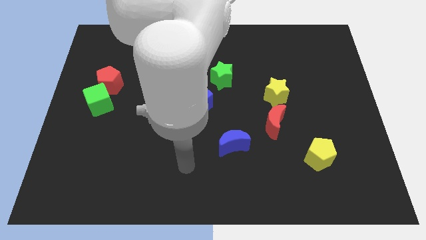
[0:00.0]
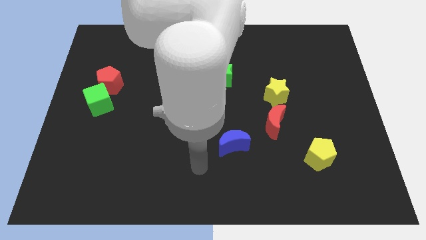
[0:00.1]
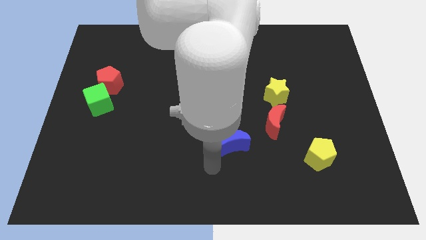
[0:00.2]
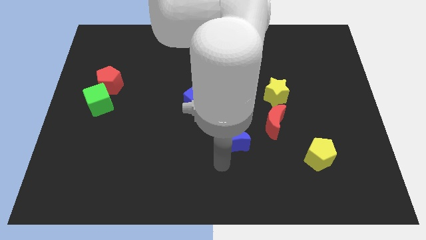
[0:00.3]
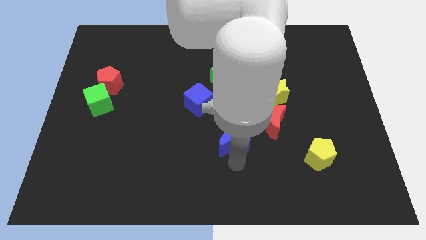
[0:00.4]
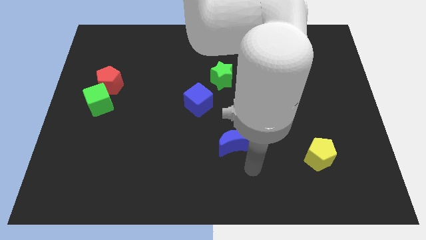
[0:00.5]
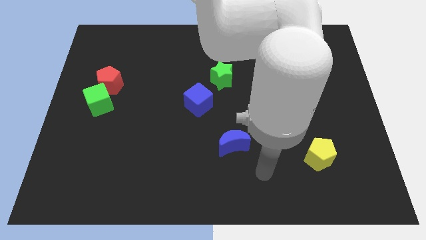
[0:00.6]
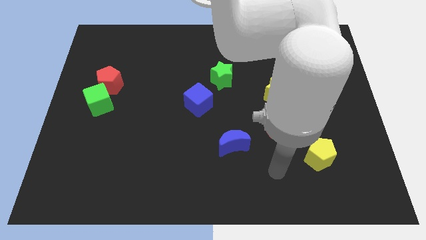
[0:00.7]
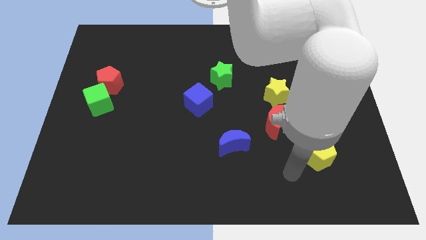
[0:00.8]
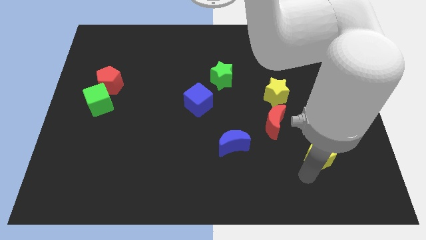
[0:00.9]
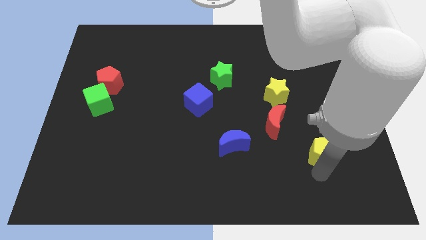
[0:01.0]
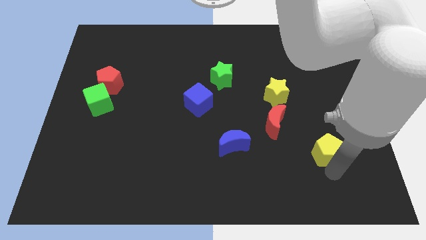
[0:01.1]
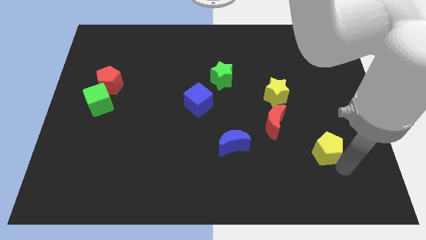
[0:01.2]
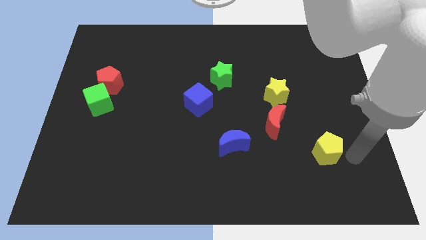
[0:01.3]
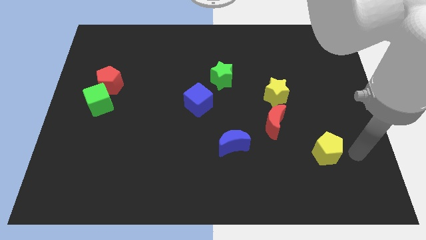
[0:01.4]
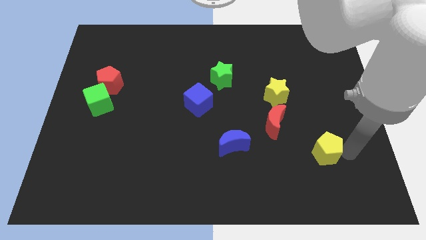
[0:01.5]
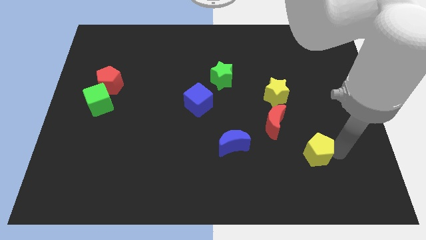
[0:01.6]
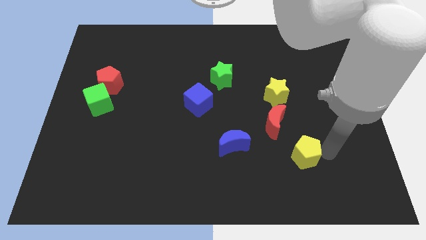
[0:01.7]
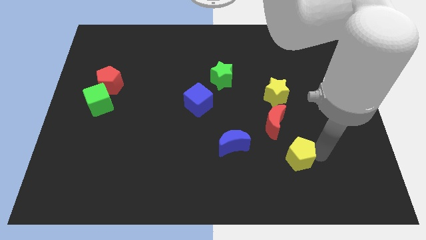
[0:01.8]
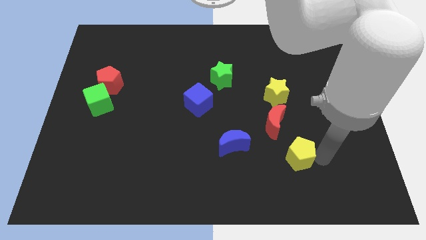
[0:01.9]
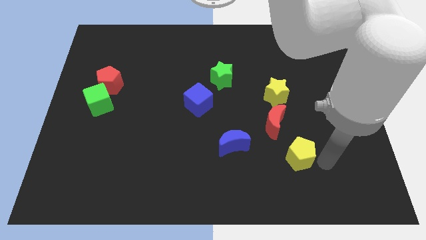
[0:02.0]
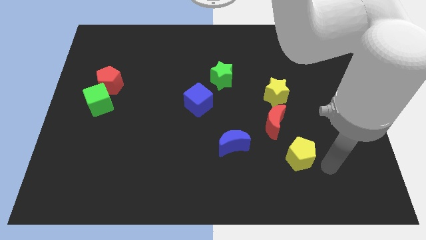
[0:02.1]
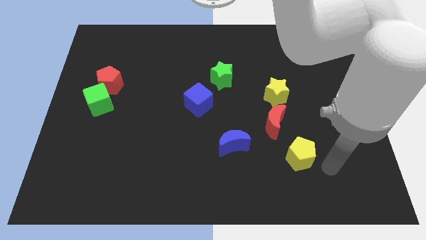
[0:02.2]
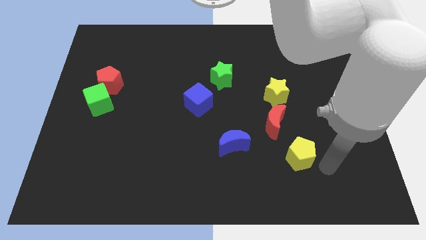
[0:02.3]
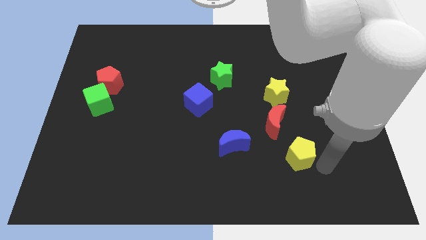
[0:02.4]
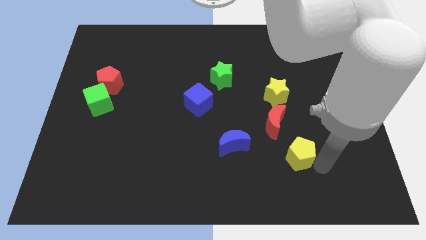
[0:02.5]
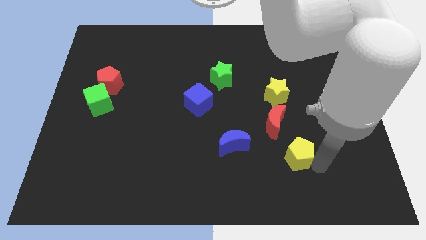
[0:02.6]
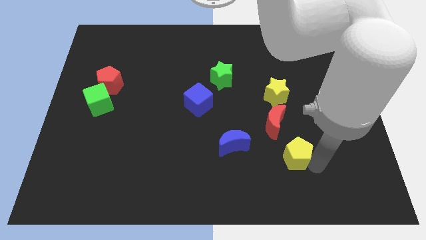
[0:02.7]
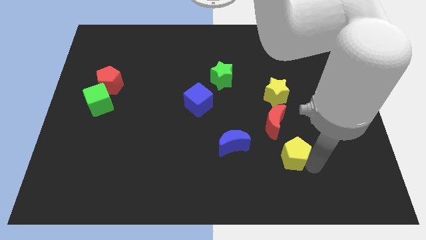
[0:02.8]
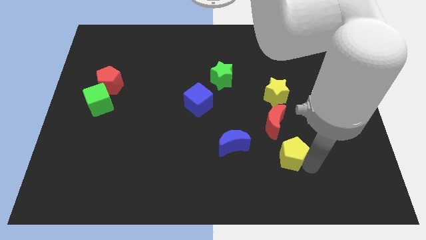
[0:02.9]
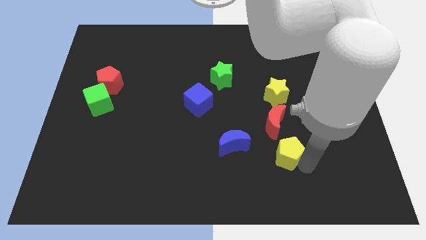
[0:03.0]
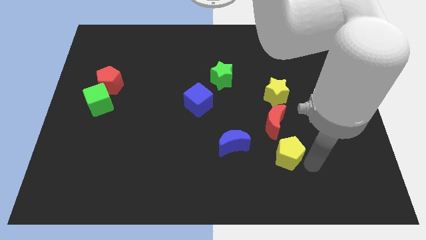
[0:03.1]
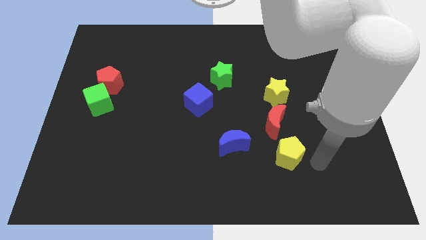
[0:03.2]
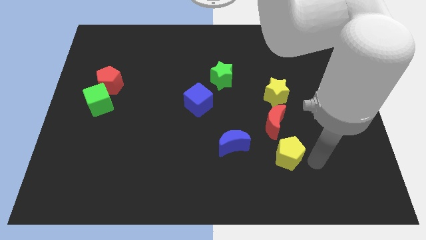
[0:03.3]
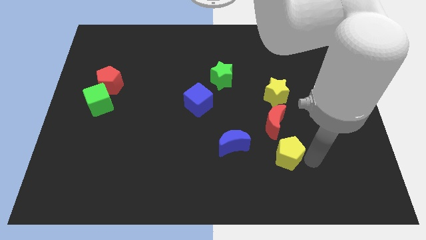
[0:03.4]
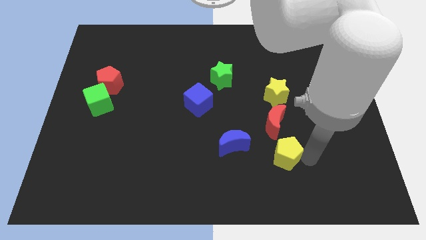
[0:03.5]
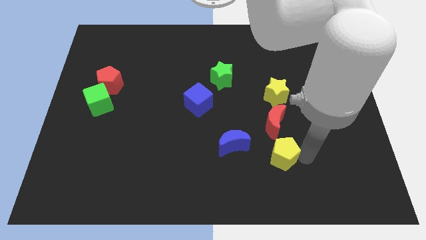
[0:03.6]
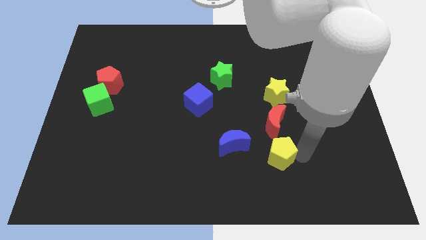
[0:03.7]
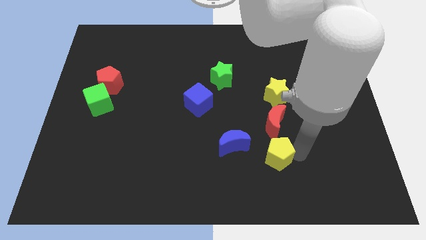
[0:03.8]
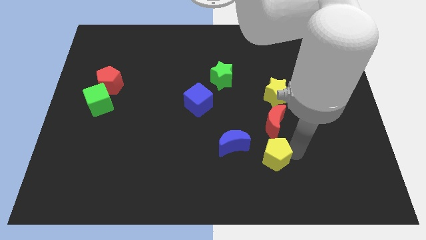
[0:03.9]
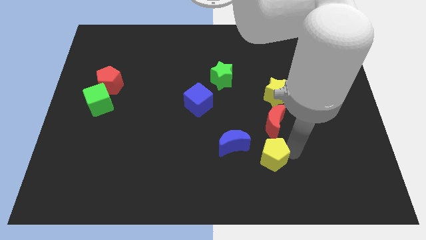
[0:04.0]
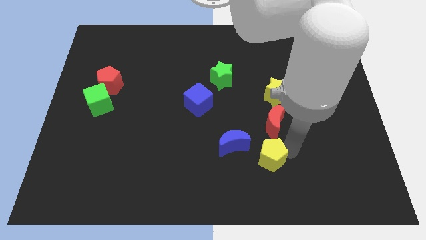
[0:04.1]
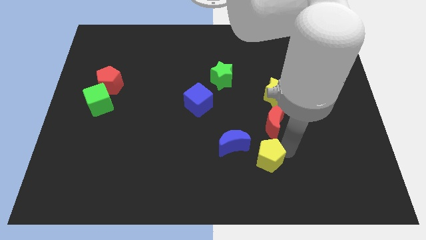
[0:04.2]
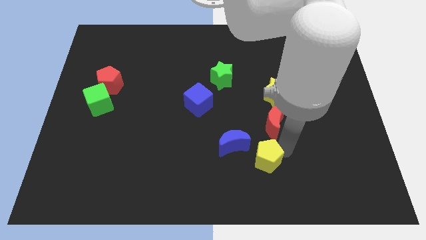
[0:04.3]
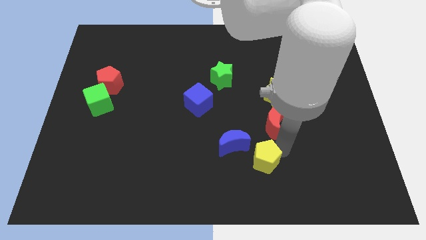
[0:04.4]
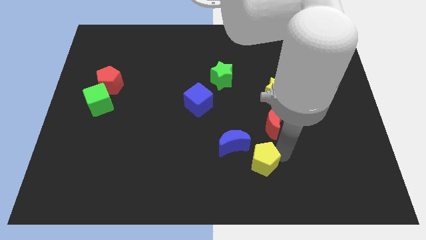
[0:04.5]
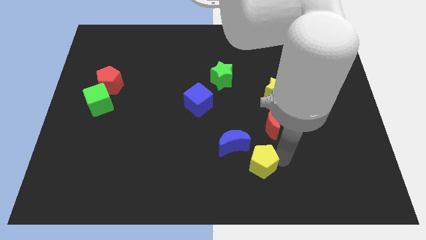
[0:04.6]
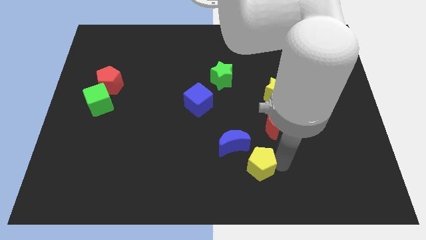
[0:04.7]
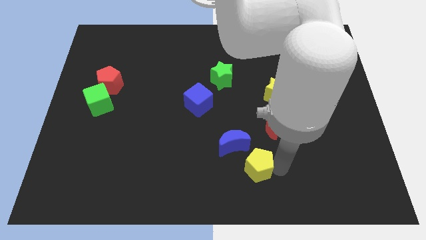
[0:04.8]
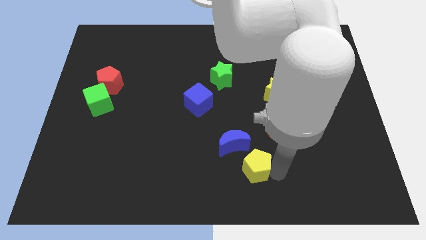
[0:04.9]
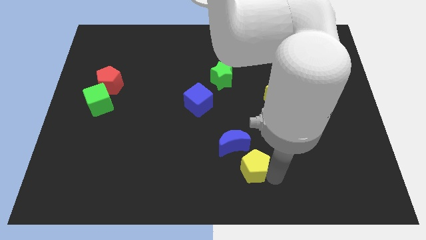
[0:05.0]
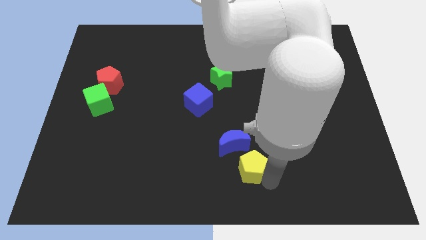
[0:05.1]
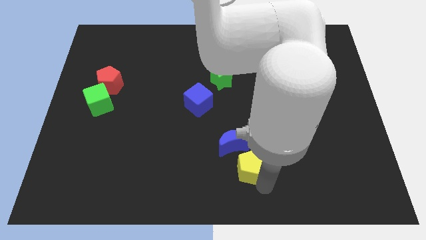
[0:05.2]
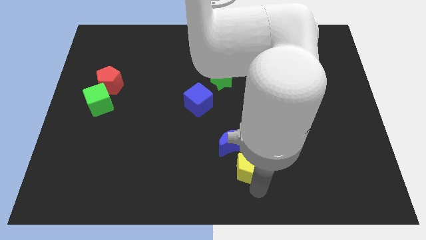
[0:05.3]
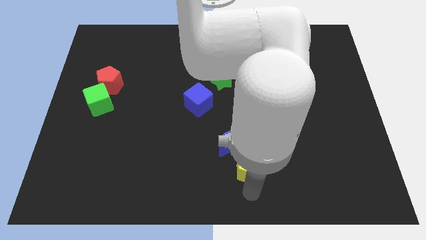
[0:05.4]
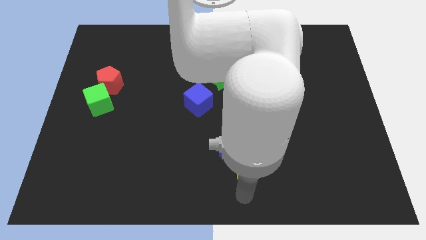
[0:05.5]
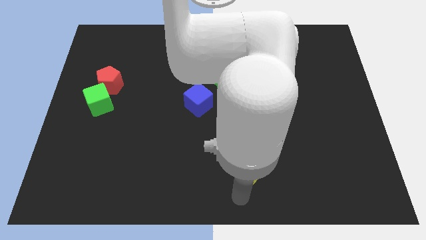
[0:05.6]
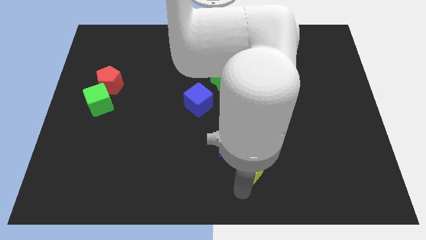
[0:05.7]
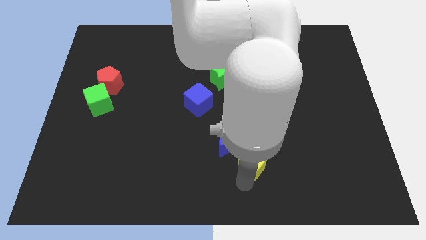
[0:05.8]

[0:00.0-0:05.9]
push the yellow pentagon to the blue moon
